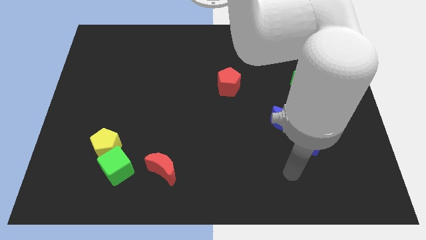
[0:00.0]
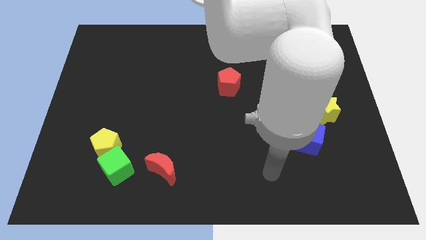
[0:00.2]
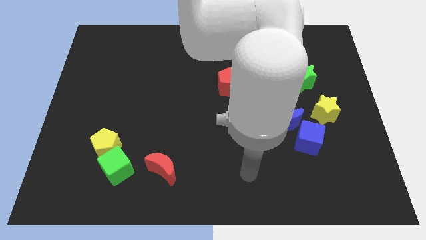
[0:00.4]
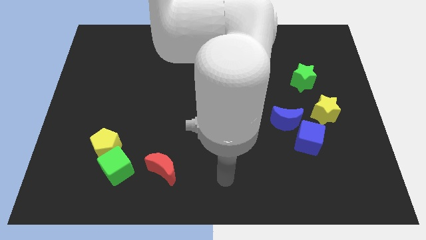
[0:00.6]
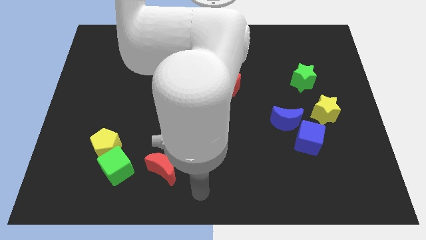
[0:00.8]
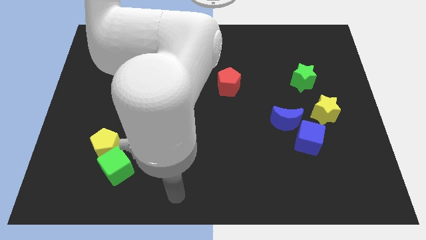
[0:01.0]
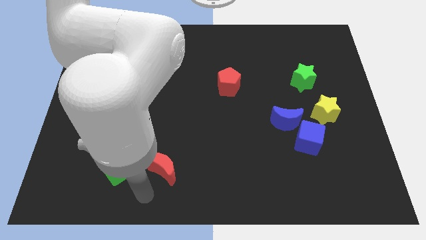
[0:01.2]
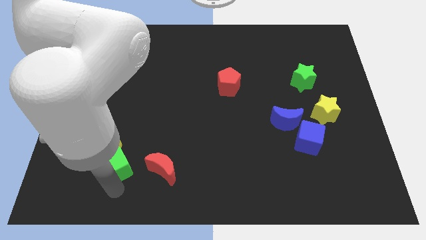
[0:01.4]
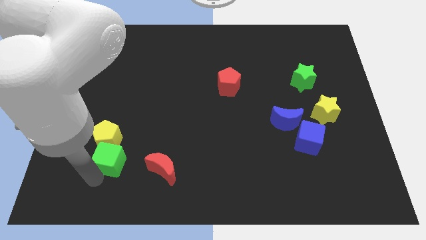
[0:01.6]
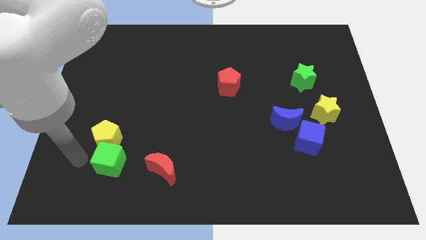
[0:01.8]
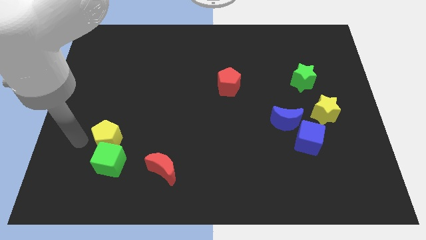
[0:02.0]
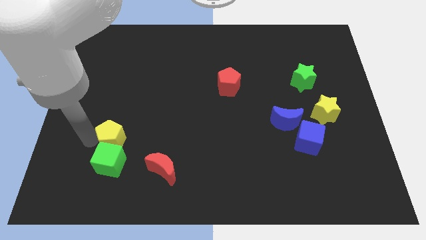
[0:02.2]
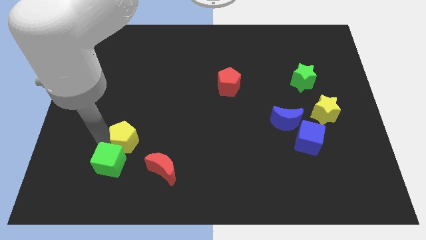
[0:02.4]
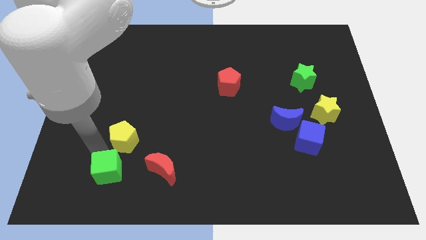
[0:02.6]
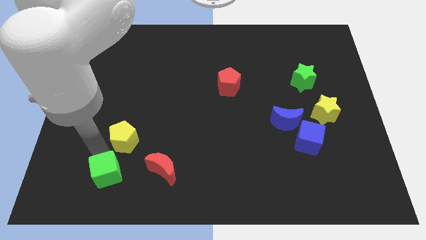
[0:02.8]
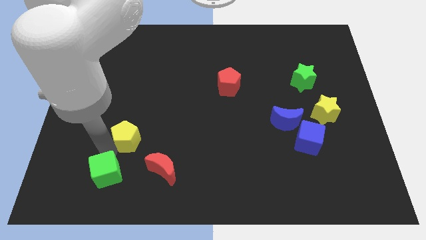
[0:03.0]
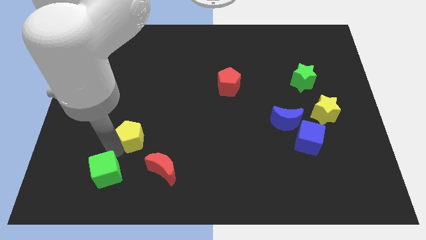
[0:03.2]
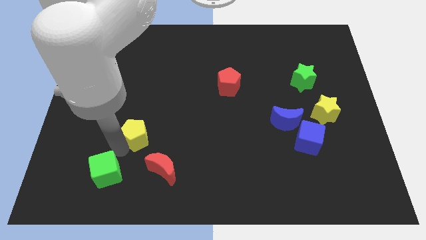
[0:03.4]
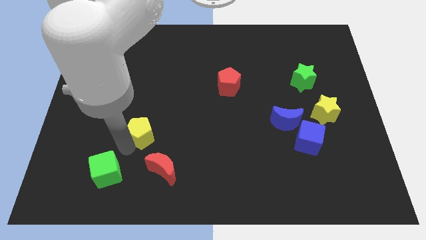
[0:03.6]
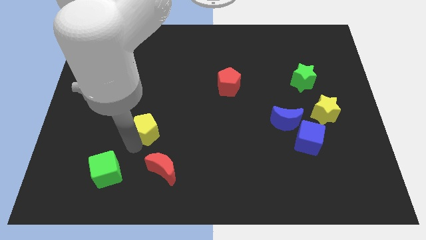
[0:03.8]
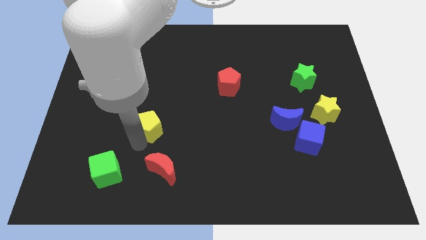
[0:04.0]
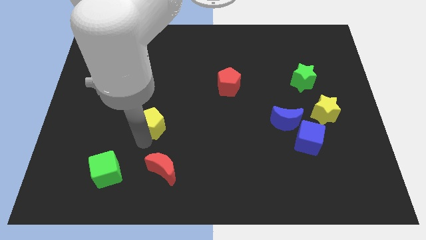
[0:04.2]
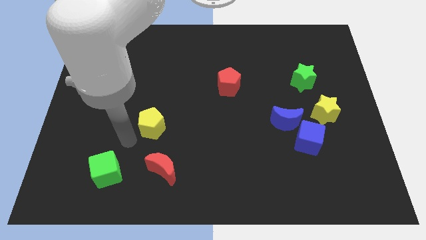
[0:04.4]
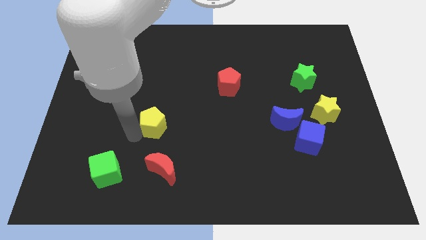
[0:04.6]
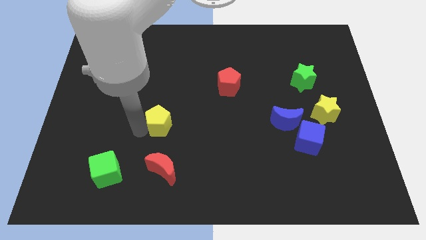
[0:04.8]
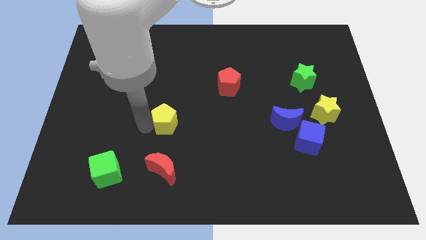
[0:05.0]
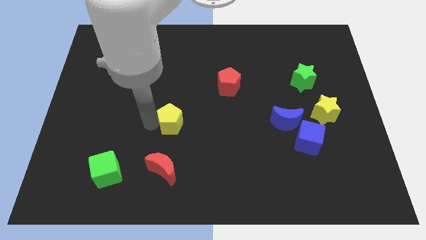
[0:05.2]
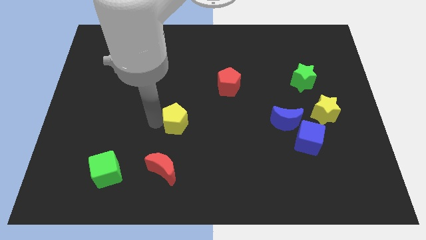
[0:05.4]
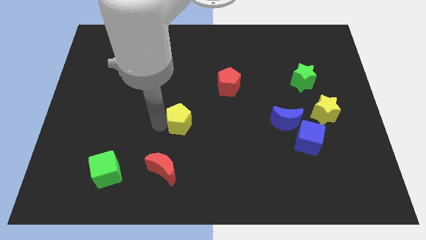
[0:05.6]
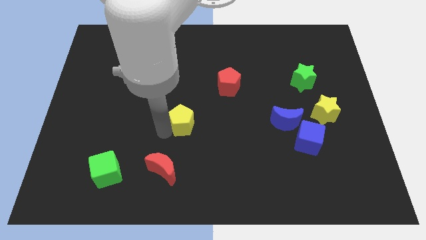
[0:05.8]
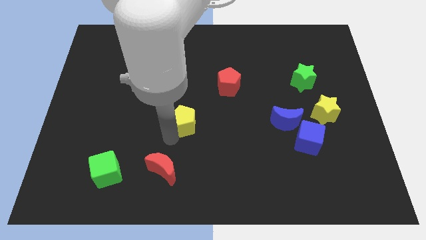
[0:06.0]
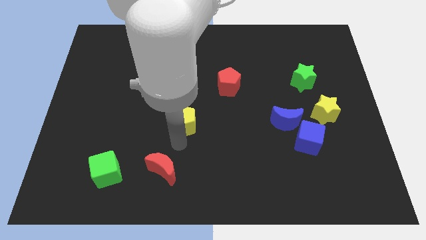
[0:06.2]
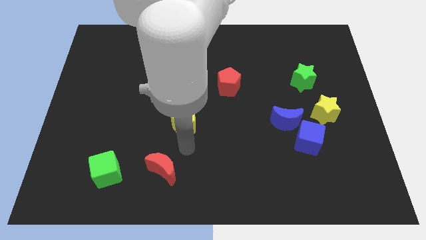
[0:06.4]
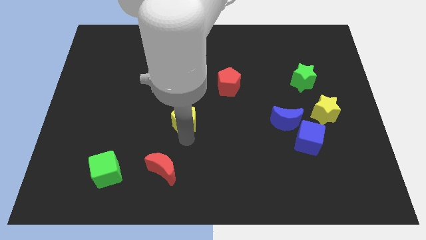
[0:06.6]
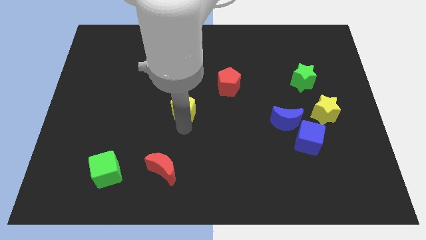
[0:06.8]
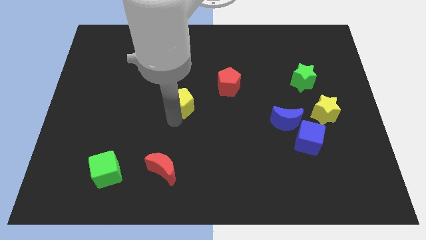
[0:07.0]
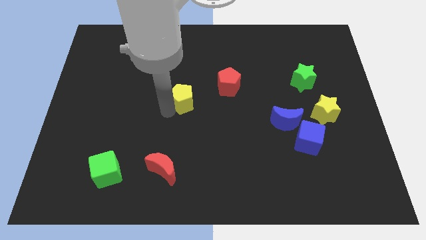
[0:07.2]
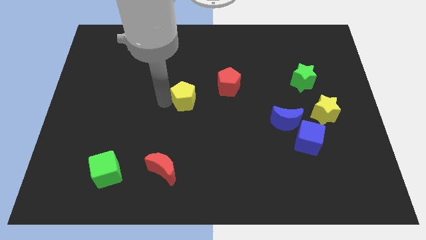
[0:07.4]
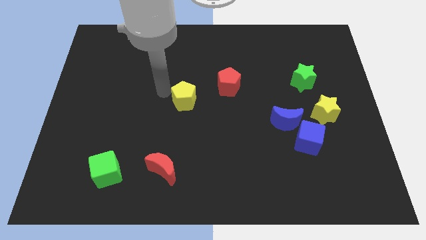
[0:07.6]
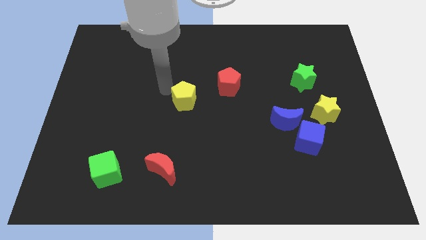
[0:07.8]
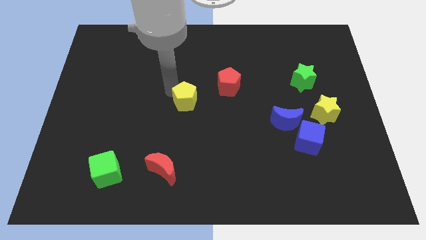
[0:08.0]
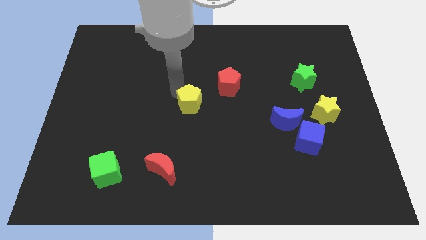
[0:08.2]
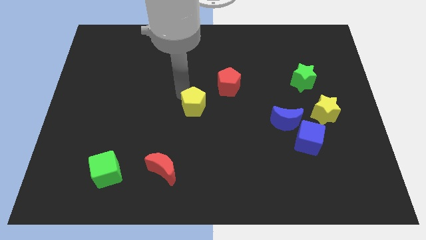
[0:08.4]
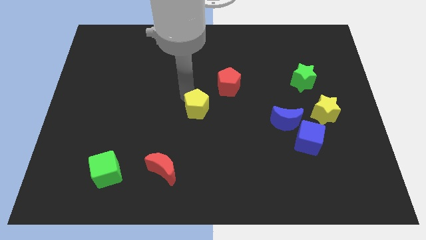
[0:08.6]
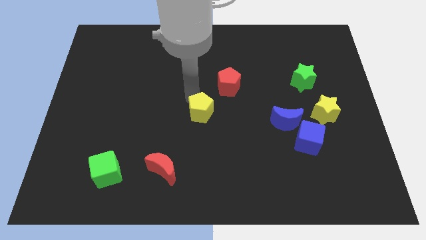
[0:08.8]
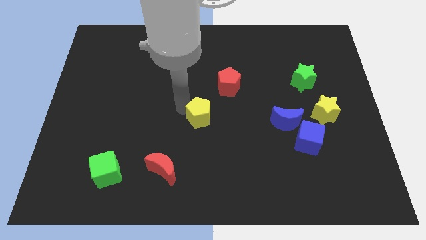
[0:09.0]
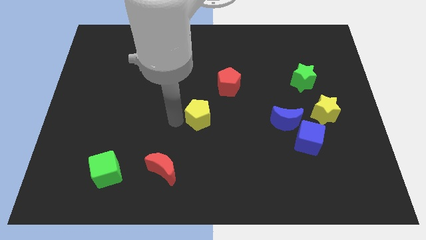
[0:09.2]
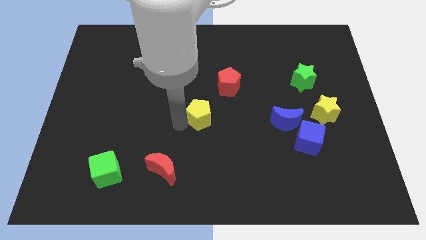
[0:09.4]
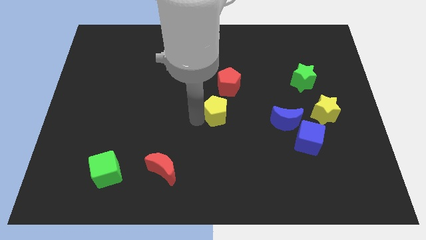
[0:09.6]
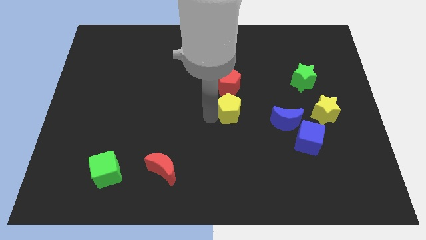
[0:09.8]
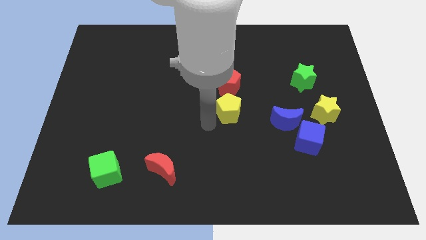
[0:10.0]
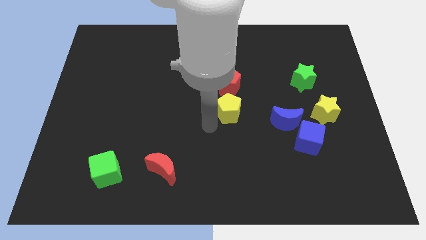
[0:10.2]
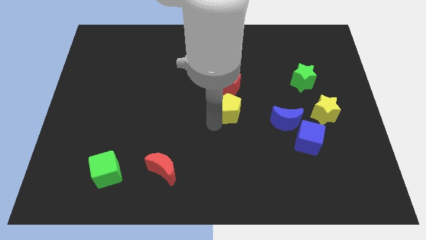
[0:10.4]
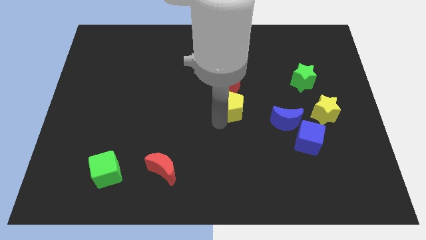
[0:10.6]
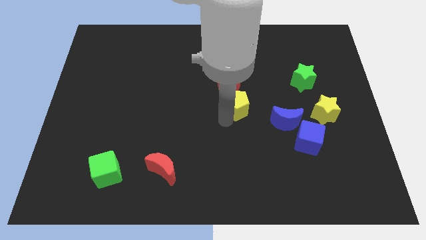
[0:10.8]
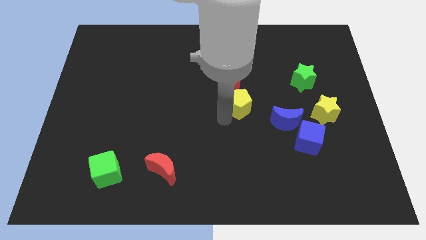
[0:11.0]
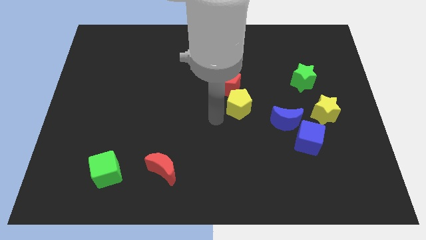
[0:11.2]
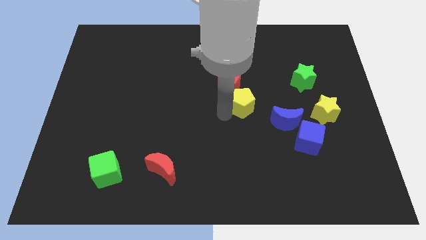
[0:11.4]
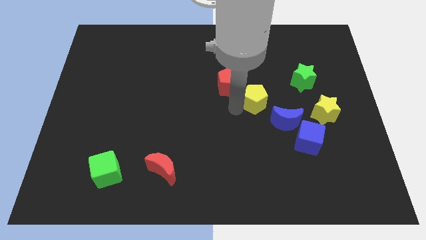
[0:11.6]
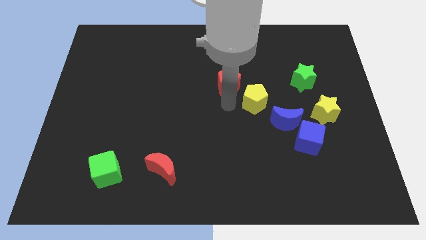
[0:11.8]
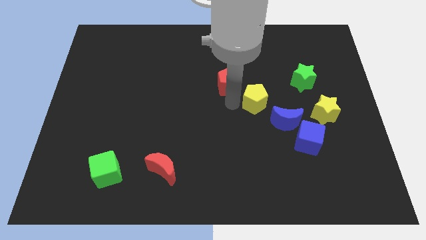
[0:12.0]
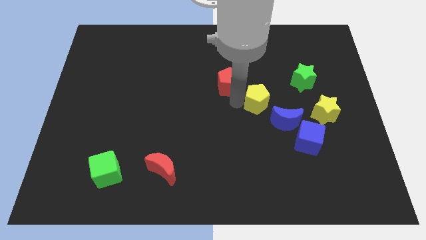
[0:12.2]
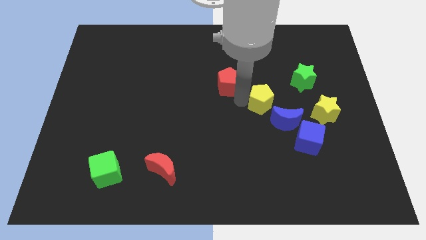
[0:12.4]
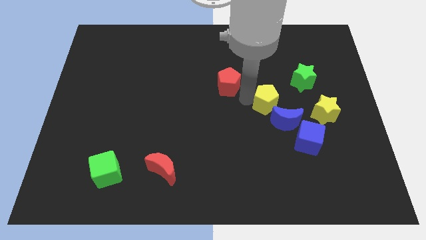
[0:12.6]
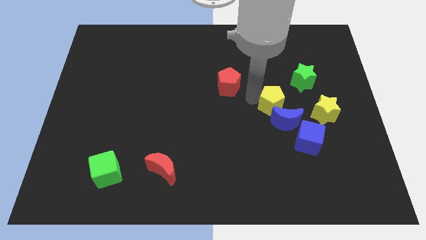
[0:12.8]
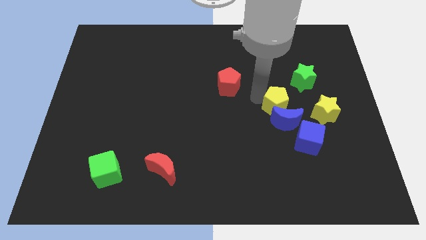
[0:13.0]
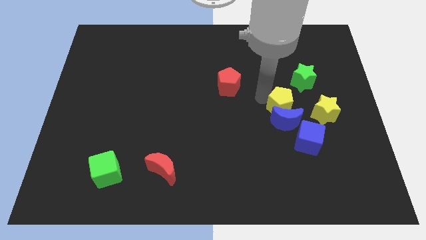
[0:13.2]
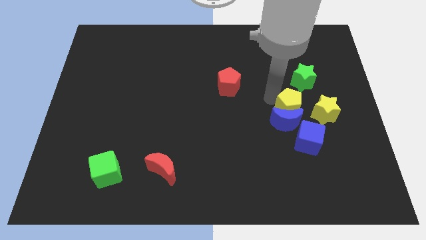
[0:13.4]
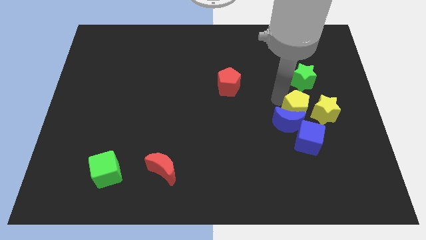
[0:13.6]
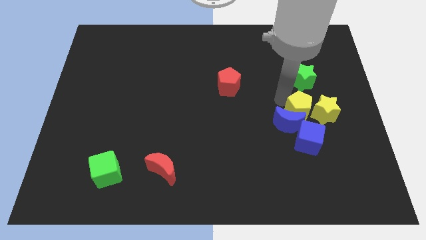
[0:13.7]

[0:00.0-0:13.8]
put the yellow pentagon towards the yellow star

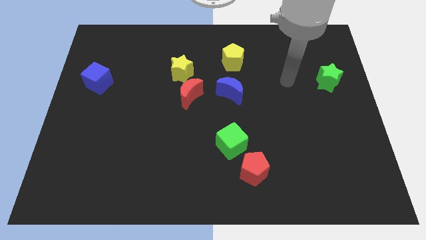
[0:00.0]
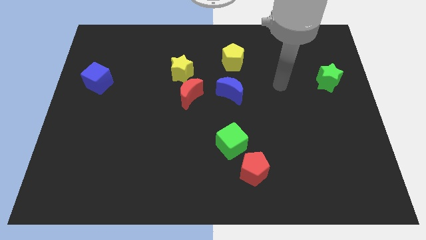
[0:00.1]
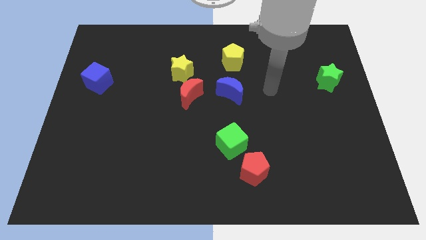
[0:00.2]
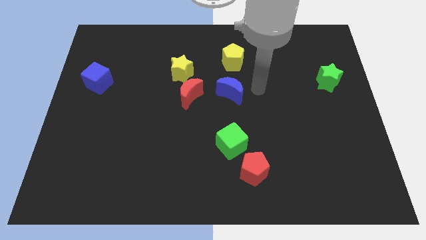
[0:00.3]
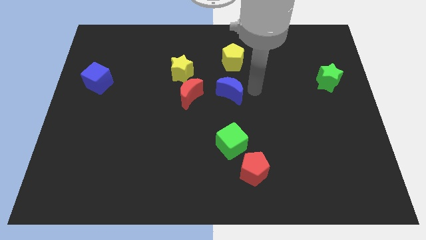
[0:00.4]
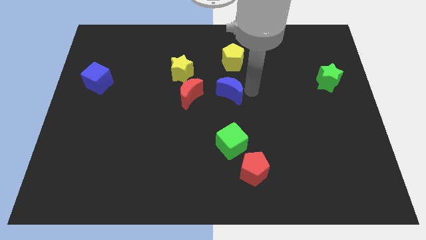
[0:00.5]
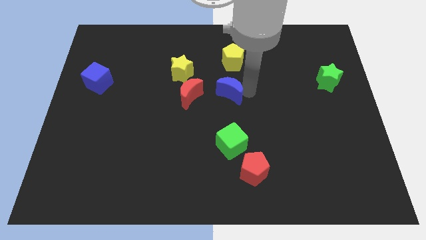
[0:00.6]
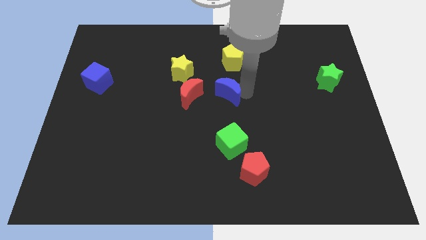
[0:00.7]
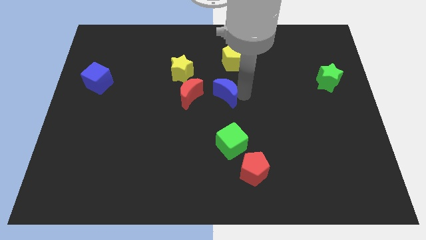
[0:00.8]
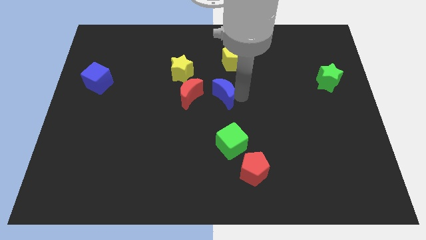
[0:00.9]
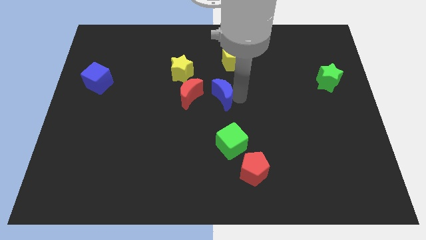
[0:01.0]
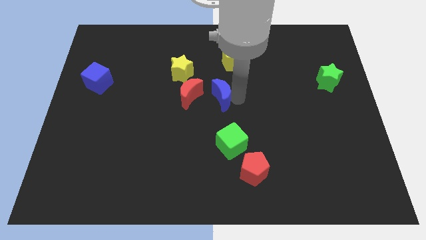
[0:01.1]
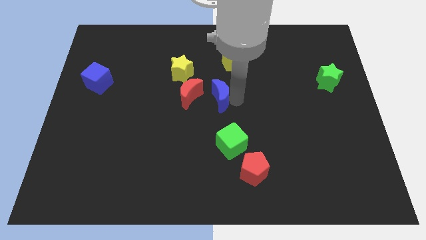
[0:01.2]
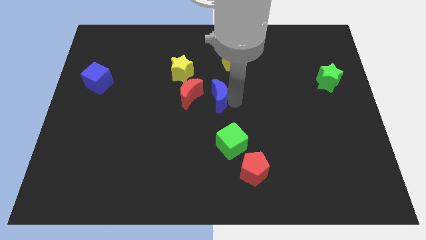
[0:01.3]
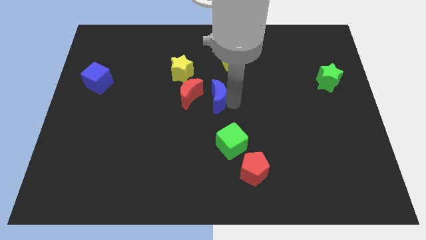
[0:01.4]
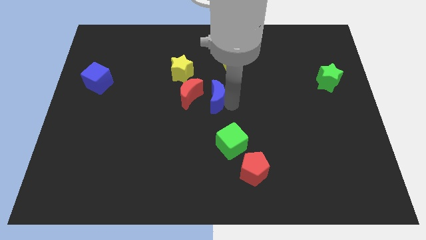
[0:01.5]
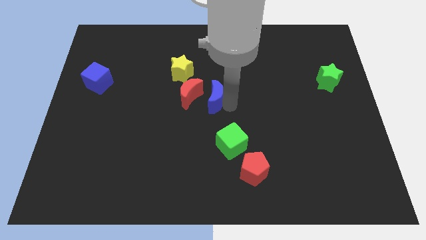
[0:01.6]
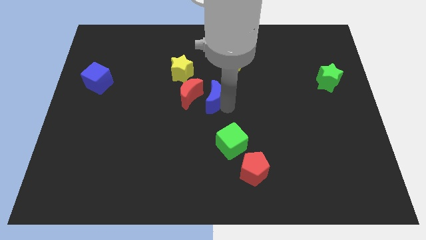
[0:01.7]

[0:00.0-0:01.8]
push the blue moon close to the red moon
